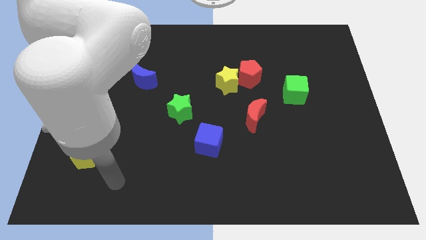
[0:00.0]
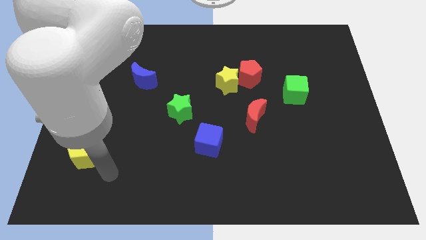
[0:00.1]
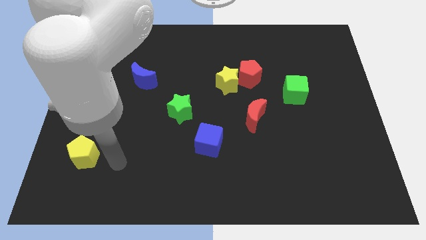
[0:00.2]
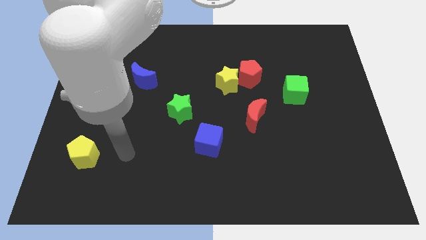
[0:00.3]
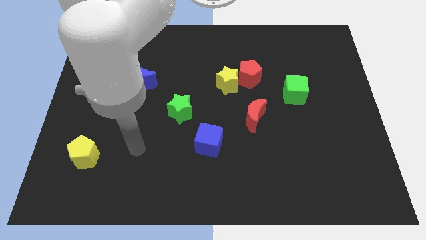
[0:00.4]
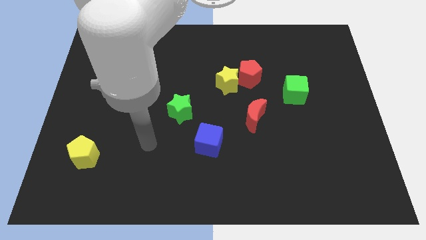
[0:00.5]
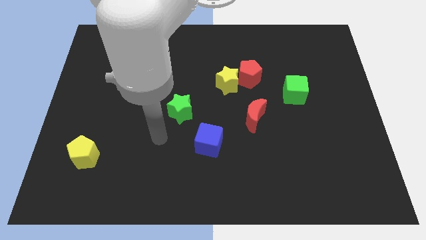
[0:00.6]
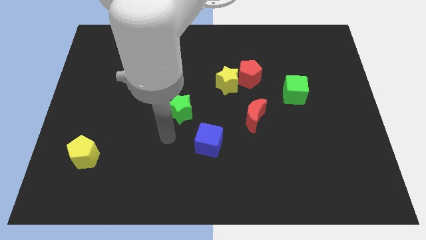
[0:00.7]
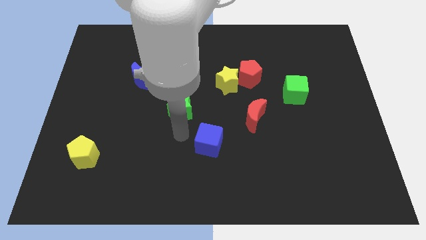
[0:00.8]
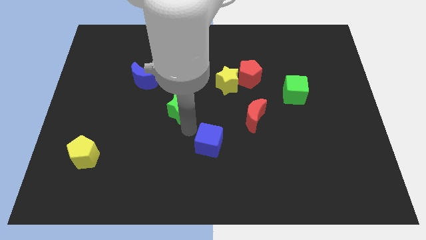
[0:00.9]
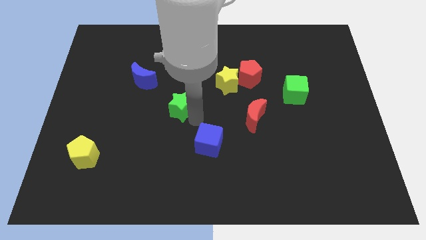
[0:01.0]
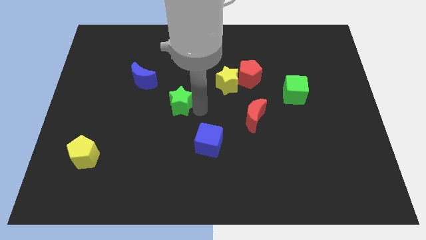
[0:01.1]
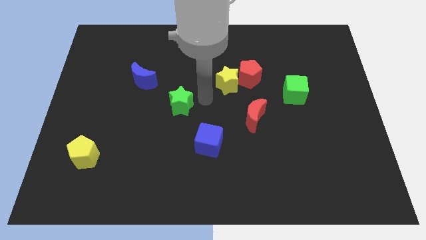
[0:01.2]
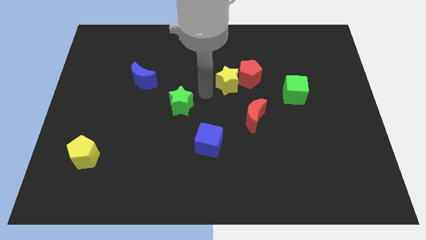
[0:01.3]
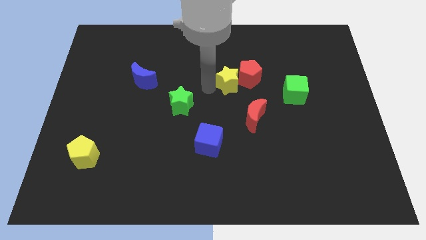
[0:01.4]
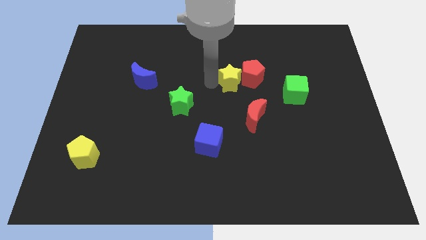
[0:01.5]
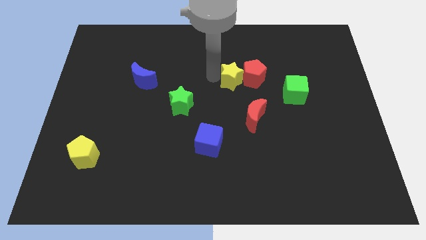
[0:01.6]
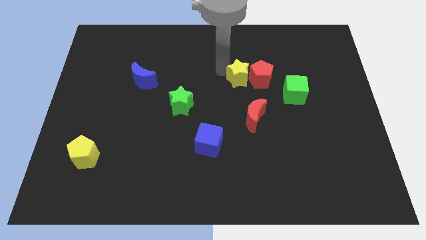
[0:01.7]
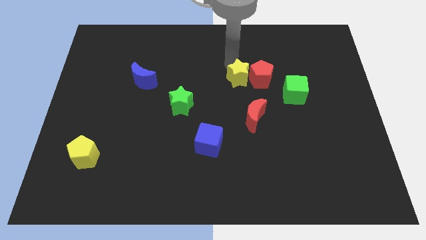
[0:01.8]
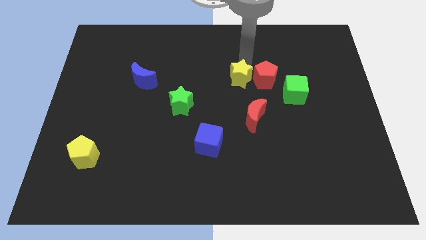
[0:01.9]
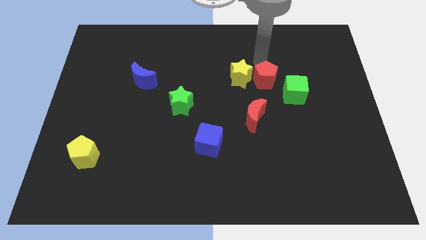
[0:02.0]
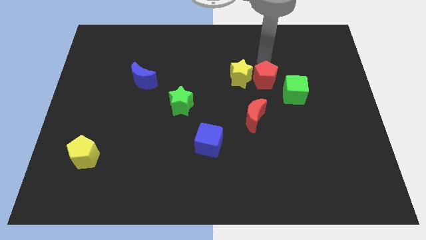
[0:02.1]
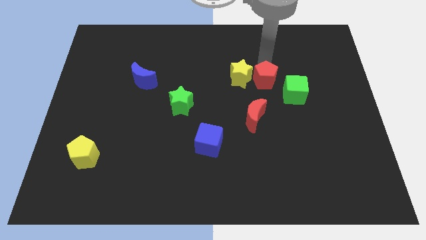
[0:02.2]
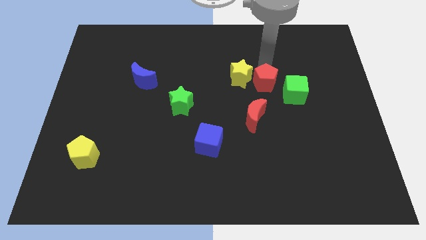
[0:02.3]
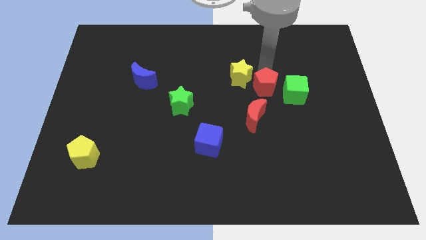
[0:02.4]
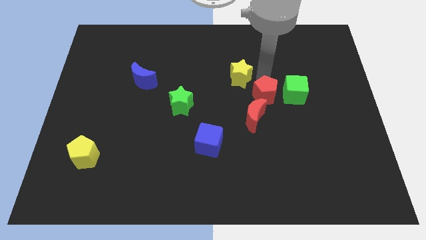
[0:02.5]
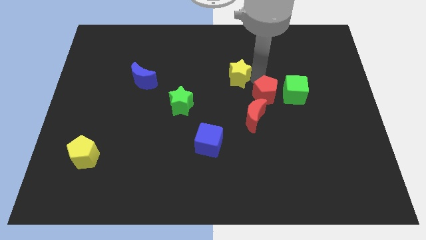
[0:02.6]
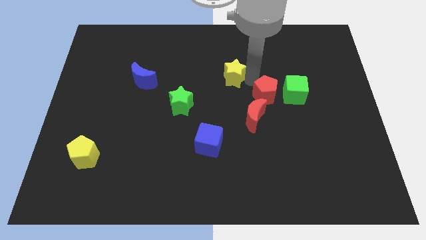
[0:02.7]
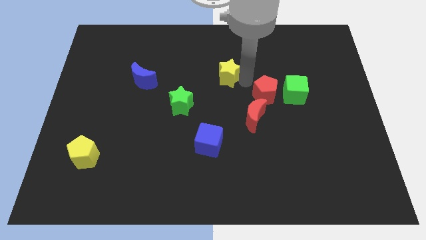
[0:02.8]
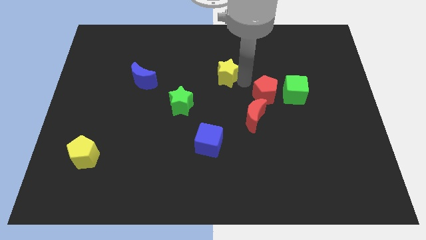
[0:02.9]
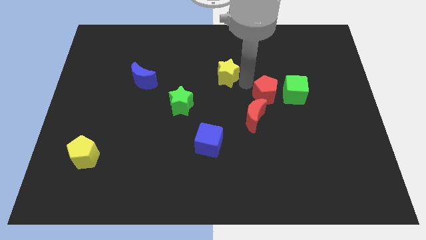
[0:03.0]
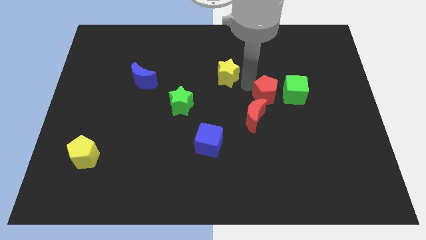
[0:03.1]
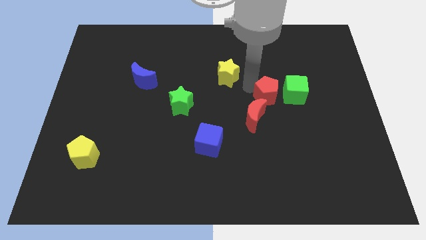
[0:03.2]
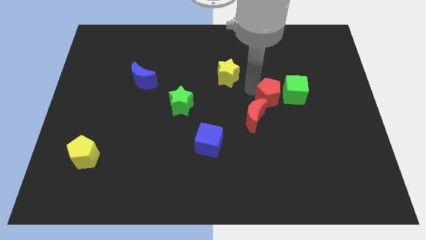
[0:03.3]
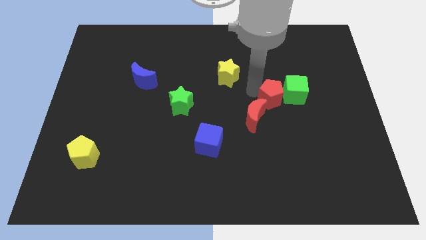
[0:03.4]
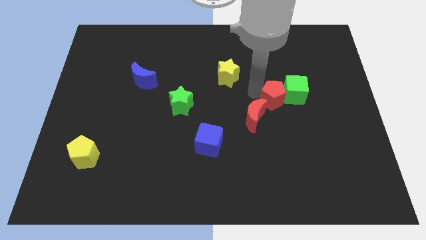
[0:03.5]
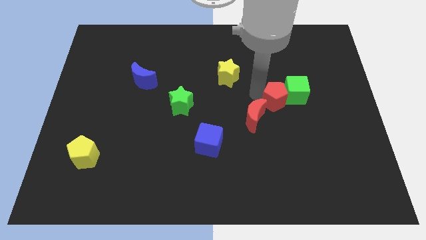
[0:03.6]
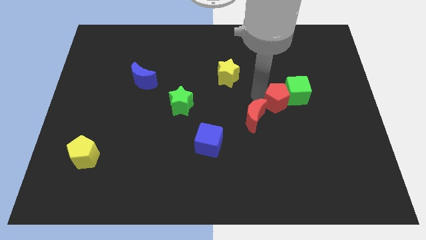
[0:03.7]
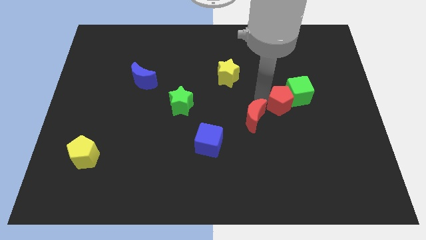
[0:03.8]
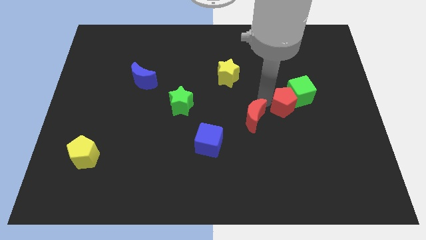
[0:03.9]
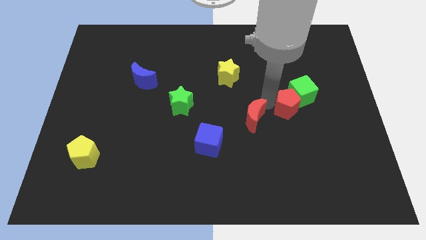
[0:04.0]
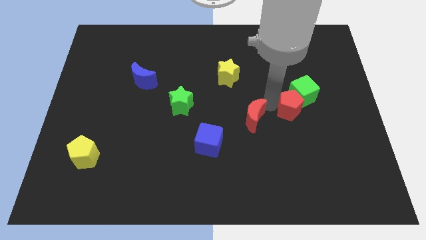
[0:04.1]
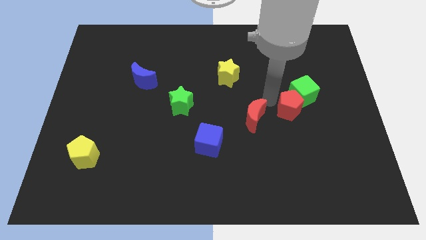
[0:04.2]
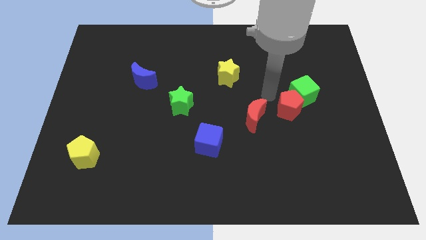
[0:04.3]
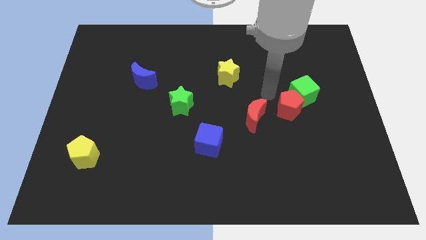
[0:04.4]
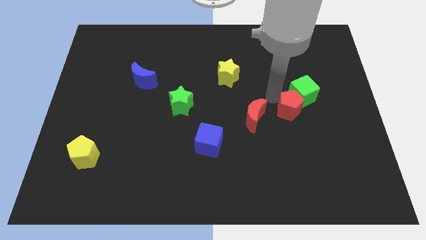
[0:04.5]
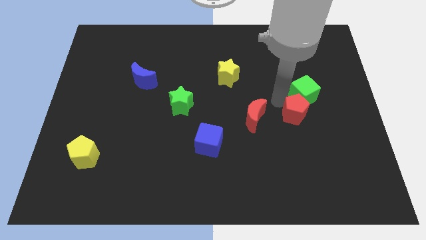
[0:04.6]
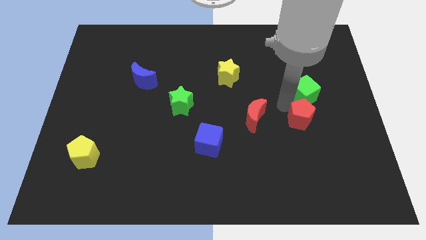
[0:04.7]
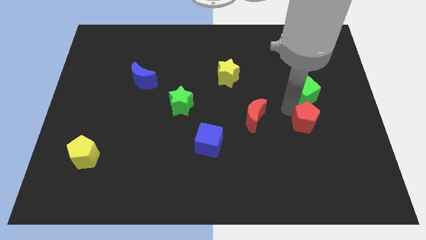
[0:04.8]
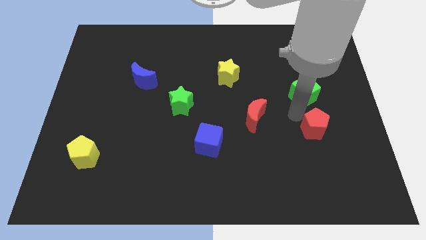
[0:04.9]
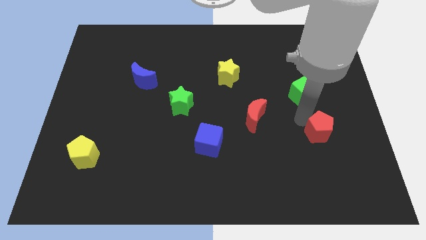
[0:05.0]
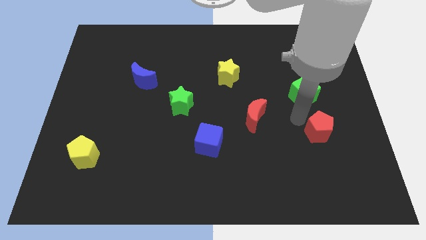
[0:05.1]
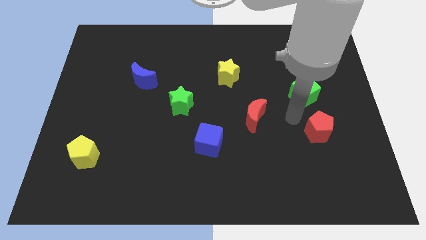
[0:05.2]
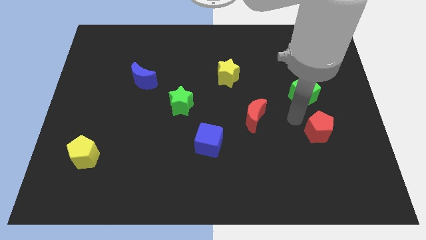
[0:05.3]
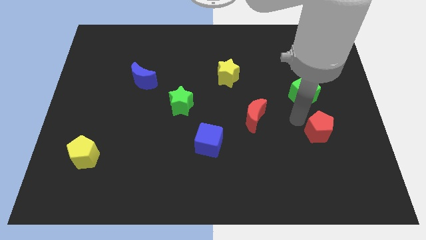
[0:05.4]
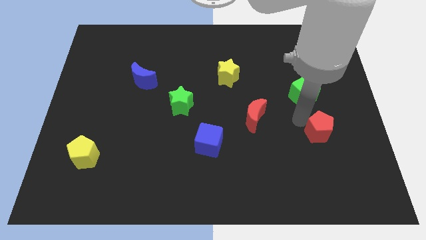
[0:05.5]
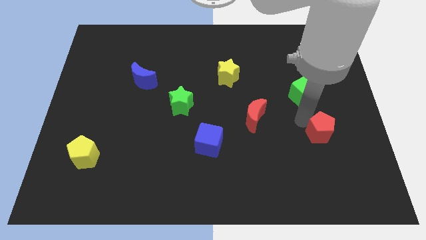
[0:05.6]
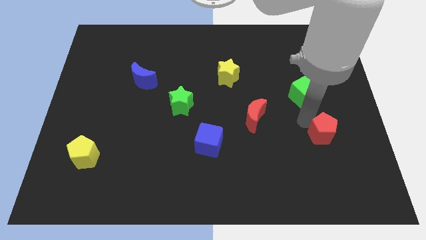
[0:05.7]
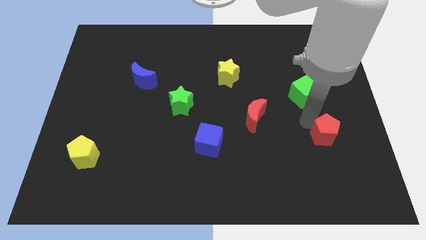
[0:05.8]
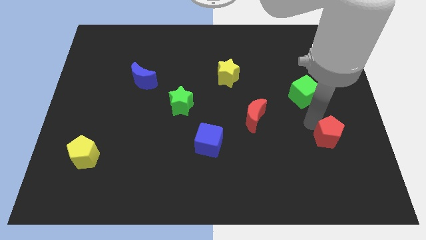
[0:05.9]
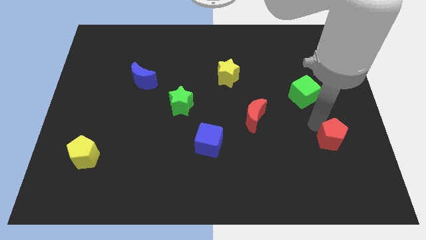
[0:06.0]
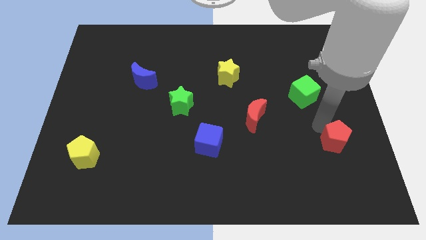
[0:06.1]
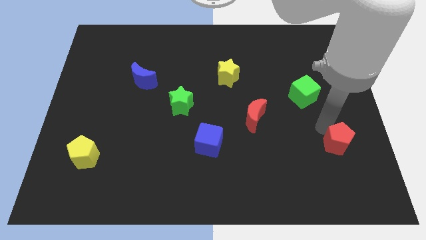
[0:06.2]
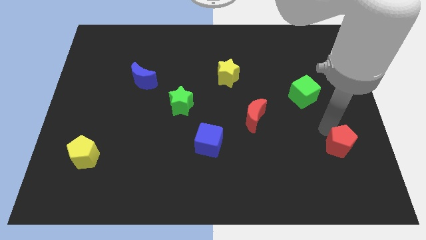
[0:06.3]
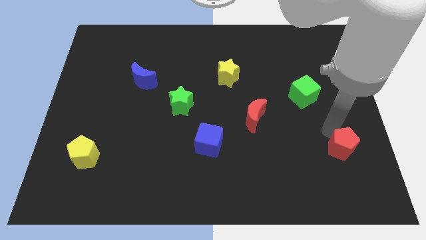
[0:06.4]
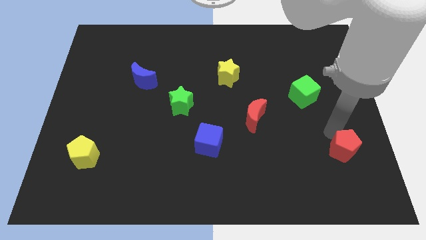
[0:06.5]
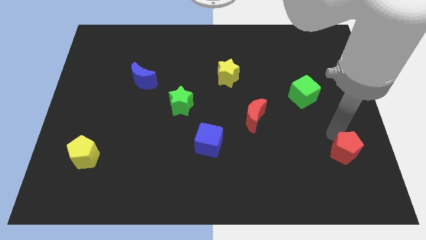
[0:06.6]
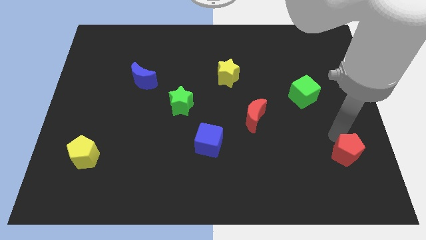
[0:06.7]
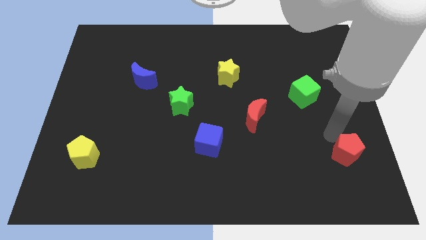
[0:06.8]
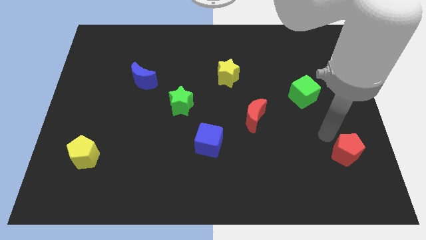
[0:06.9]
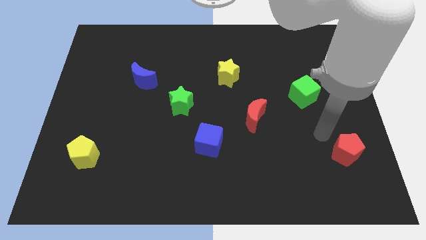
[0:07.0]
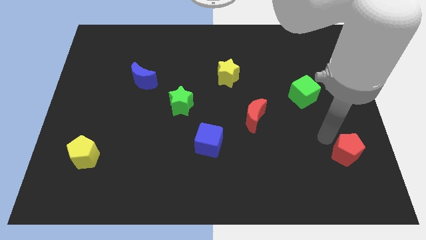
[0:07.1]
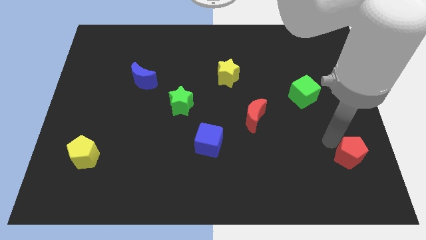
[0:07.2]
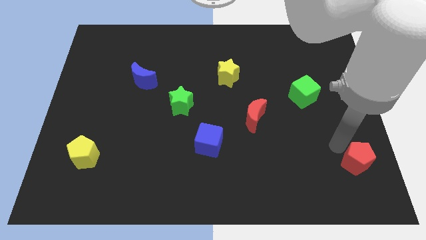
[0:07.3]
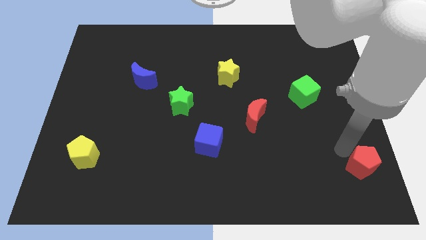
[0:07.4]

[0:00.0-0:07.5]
slide the red pentagon to the lower right corner
